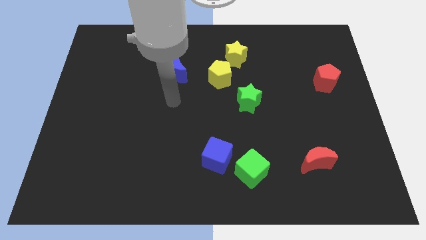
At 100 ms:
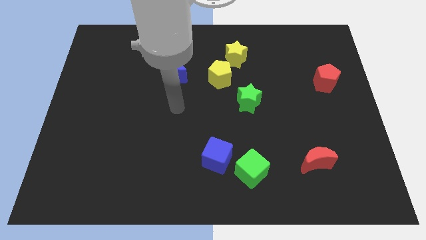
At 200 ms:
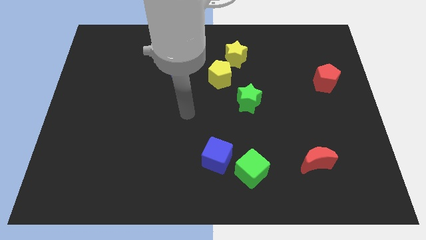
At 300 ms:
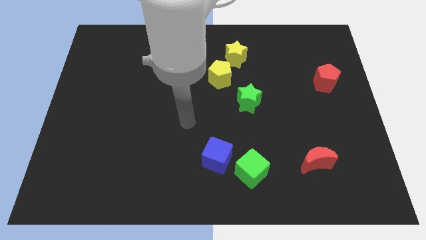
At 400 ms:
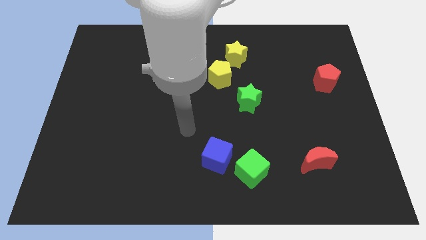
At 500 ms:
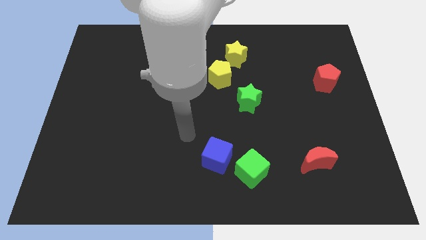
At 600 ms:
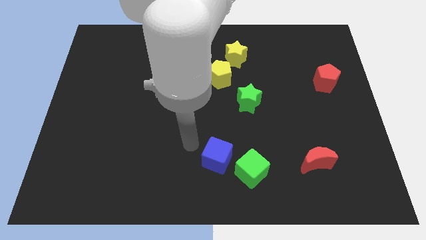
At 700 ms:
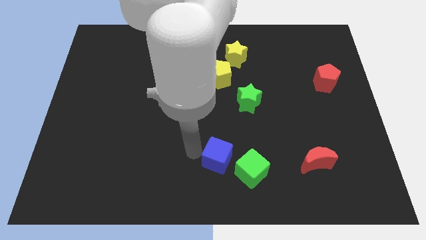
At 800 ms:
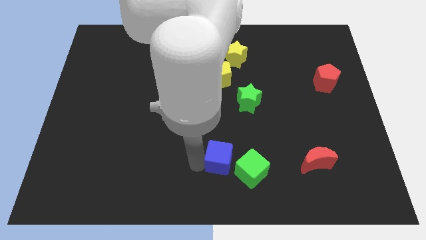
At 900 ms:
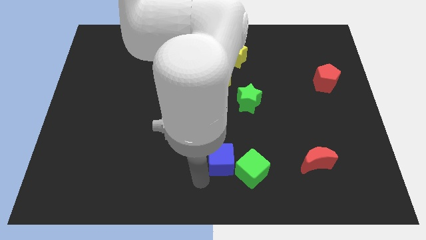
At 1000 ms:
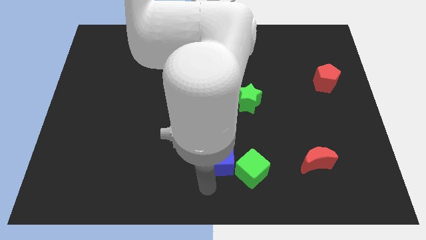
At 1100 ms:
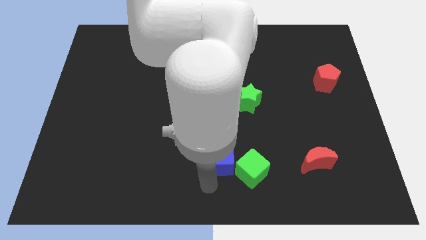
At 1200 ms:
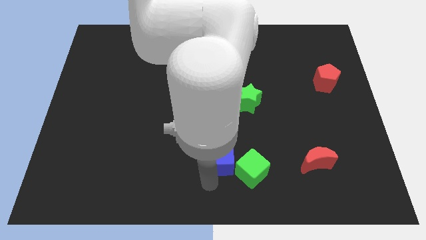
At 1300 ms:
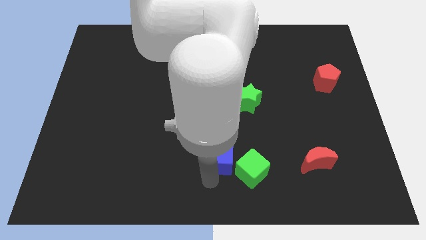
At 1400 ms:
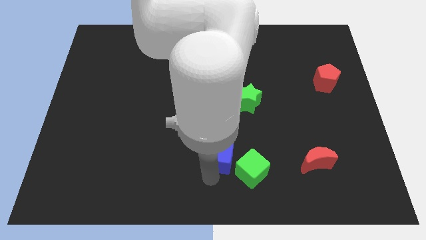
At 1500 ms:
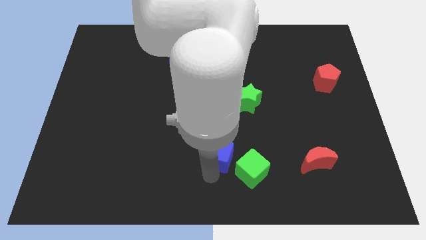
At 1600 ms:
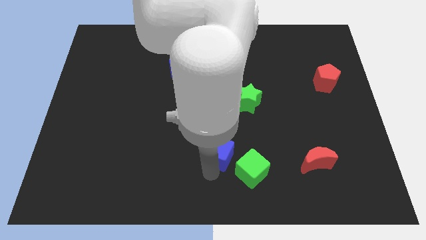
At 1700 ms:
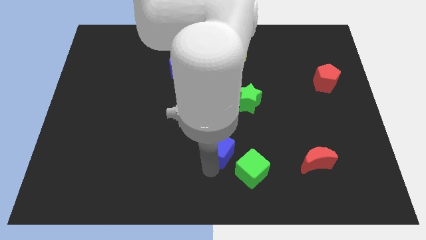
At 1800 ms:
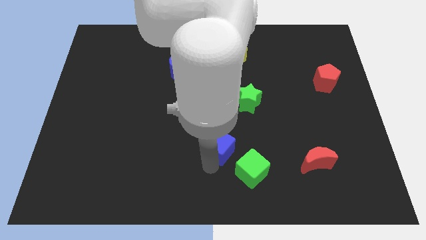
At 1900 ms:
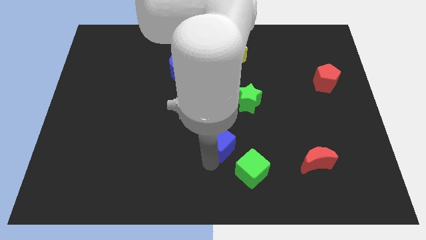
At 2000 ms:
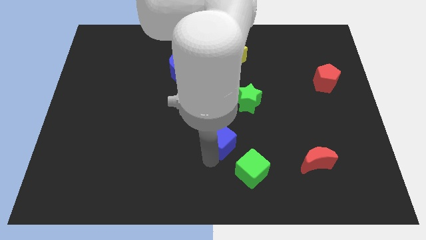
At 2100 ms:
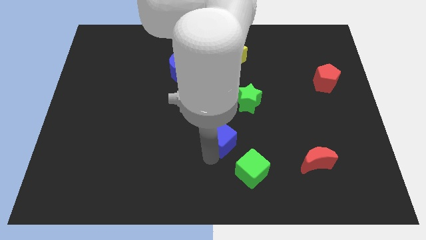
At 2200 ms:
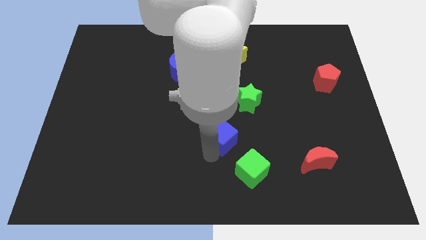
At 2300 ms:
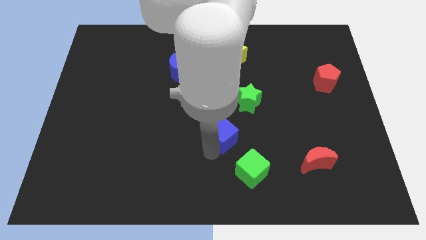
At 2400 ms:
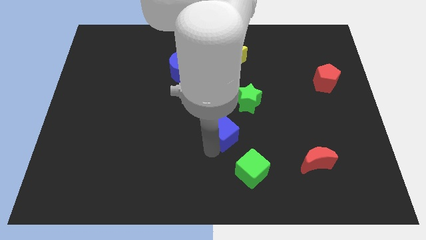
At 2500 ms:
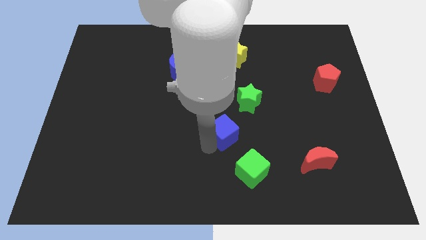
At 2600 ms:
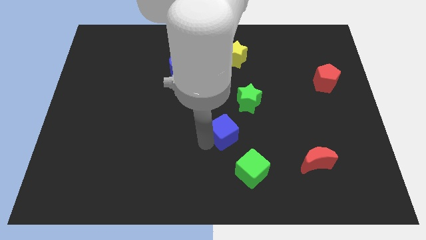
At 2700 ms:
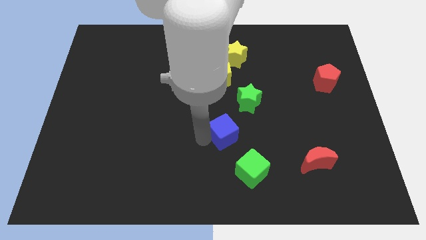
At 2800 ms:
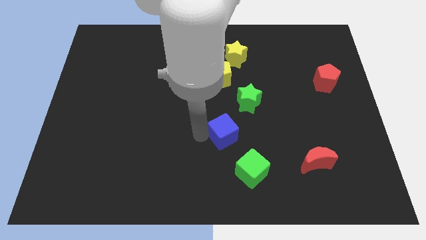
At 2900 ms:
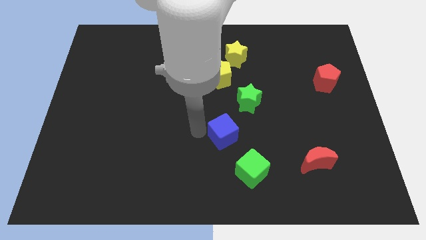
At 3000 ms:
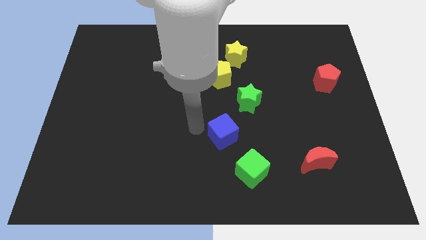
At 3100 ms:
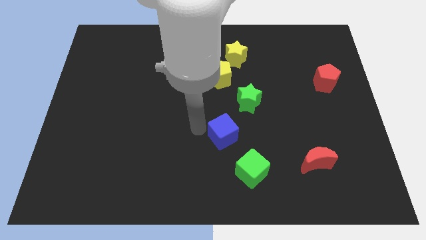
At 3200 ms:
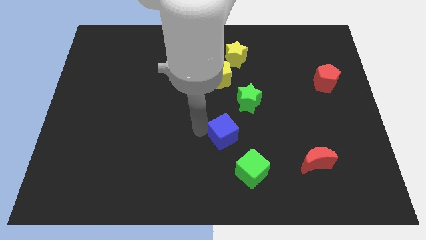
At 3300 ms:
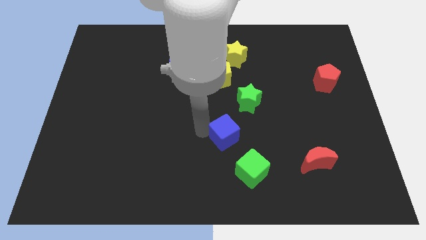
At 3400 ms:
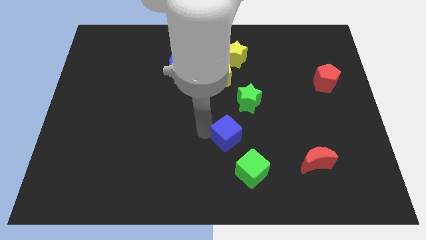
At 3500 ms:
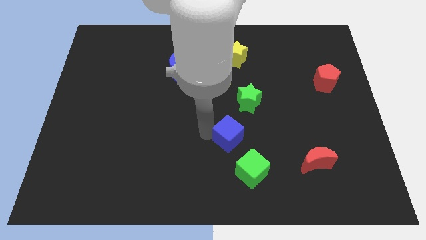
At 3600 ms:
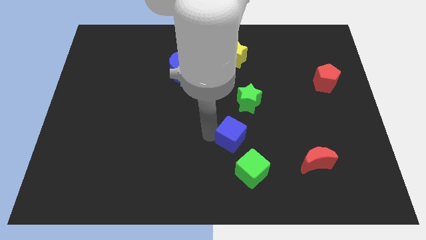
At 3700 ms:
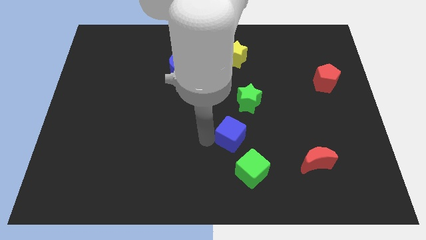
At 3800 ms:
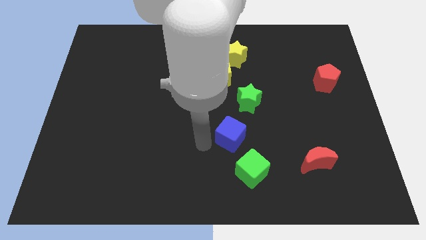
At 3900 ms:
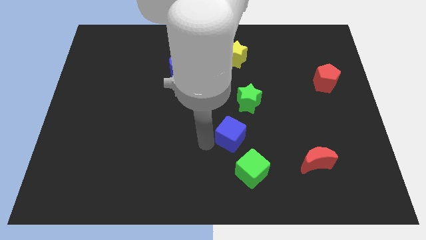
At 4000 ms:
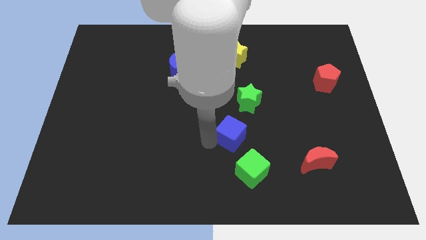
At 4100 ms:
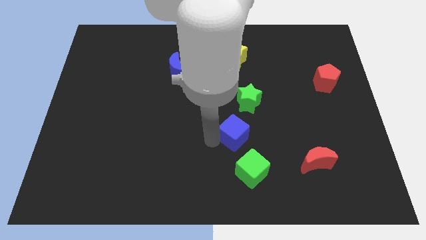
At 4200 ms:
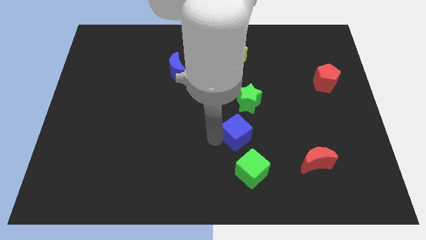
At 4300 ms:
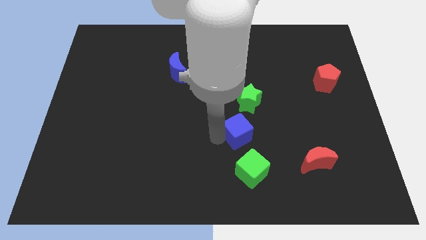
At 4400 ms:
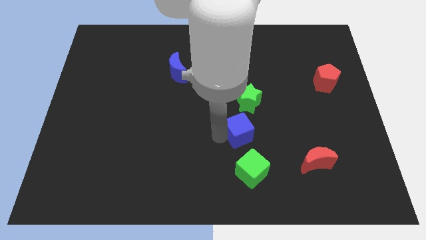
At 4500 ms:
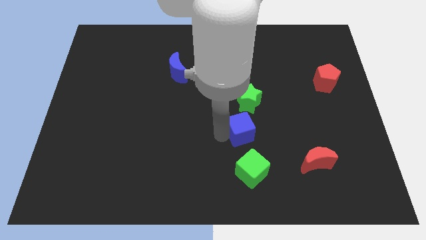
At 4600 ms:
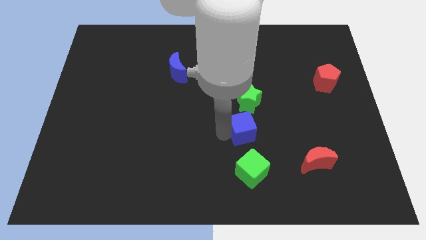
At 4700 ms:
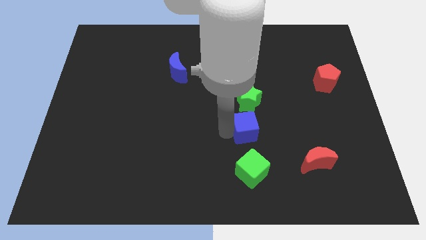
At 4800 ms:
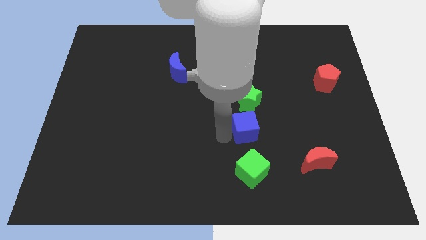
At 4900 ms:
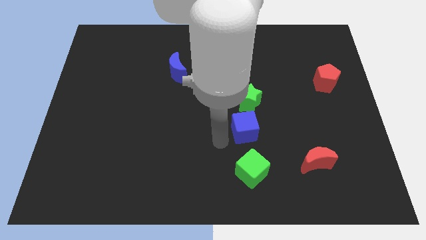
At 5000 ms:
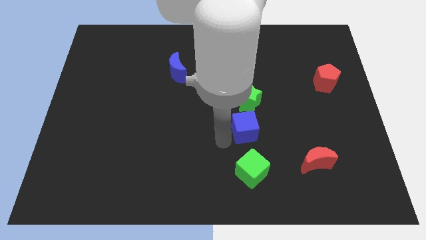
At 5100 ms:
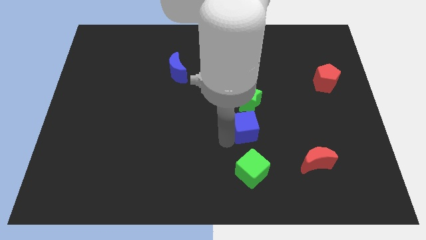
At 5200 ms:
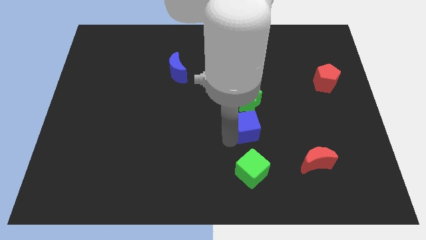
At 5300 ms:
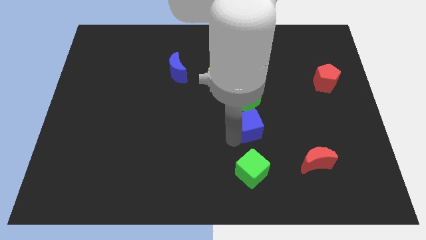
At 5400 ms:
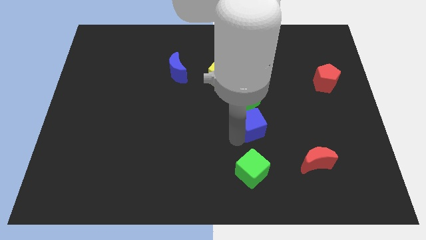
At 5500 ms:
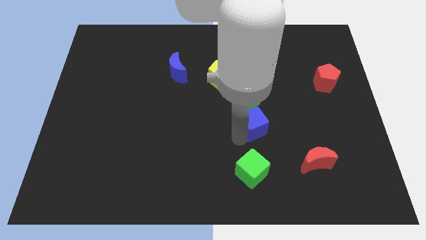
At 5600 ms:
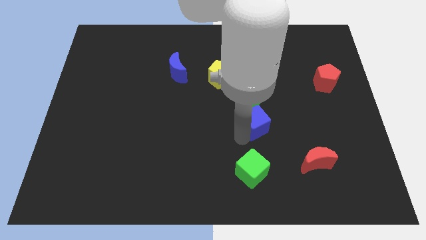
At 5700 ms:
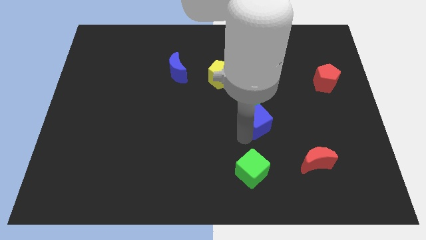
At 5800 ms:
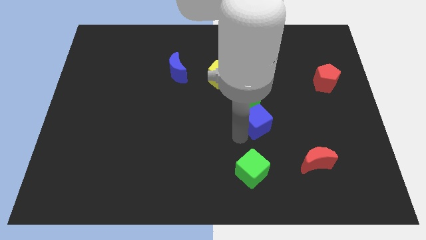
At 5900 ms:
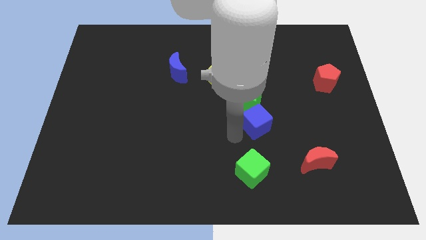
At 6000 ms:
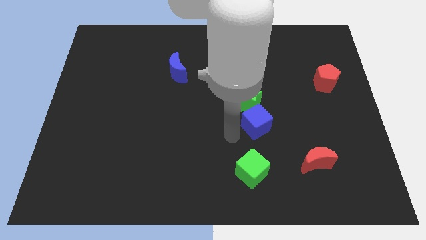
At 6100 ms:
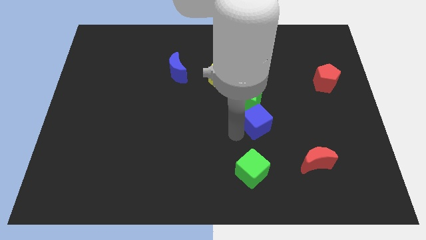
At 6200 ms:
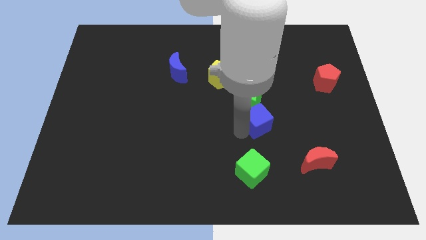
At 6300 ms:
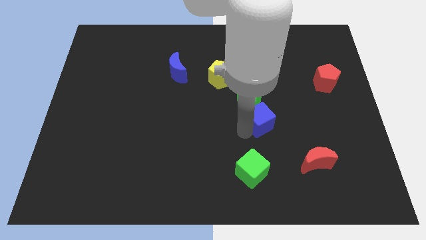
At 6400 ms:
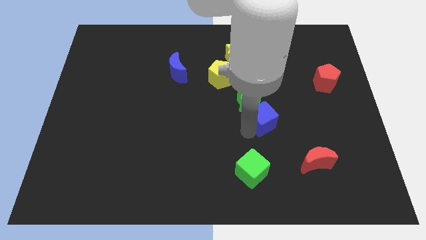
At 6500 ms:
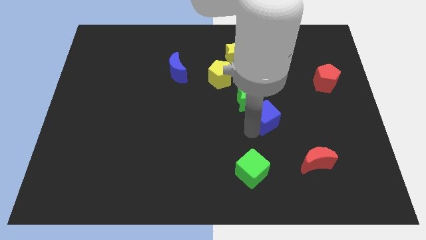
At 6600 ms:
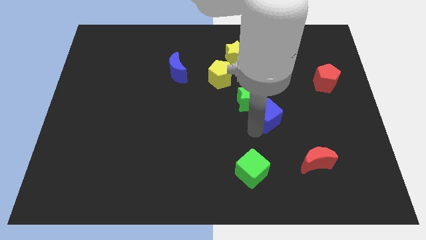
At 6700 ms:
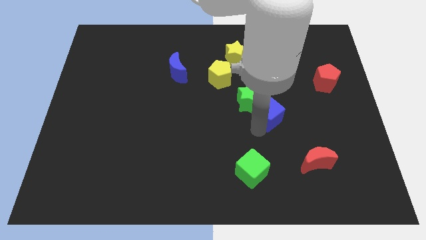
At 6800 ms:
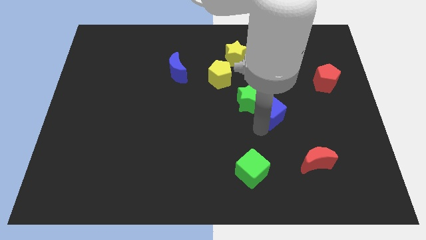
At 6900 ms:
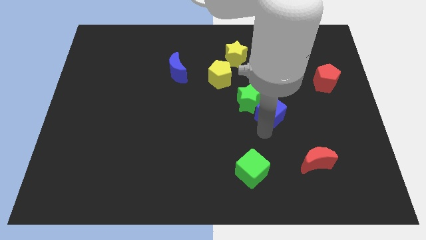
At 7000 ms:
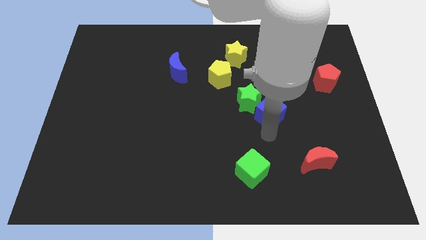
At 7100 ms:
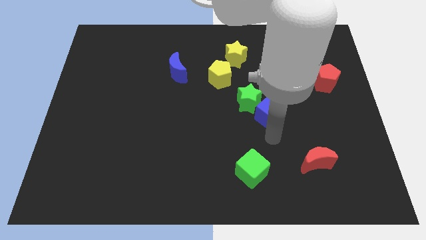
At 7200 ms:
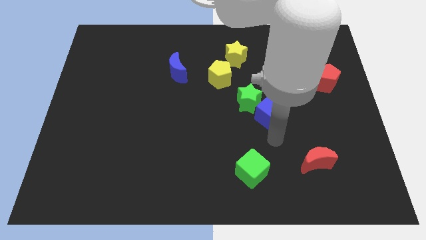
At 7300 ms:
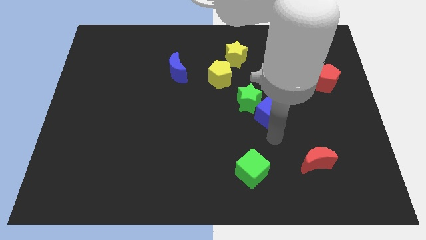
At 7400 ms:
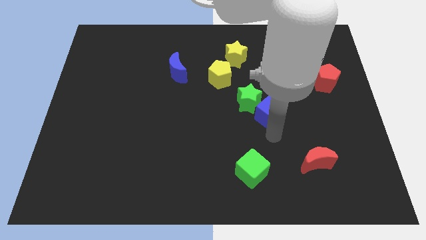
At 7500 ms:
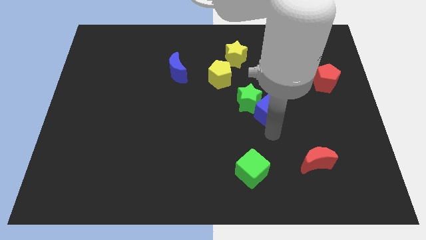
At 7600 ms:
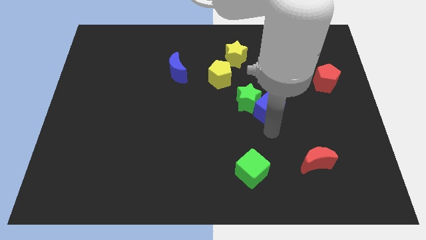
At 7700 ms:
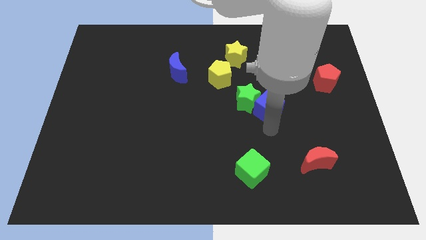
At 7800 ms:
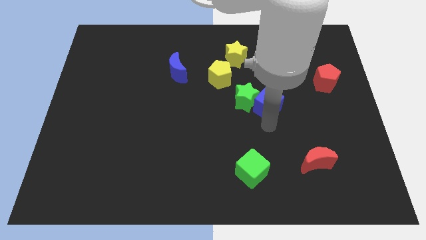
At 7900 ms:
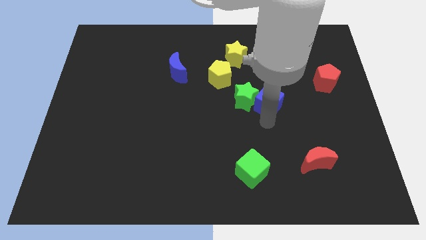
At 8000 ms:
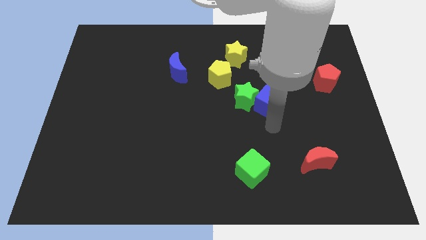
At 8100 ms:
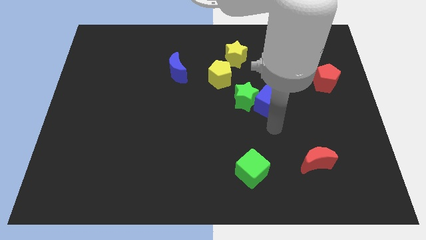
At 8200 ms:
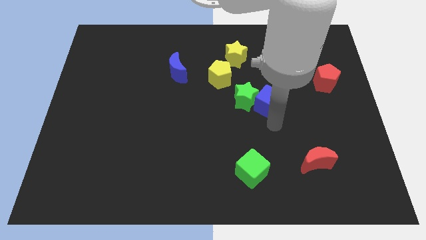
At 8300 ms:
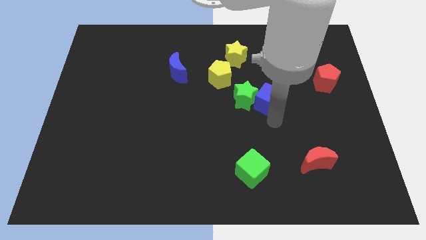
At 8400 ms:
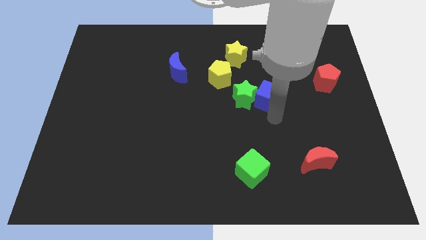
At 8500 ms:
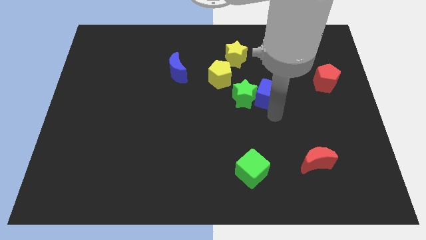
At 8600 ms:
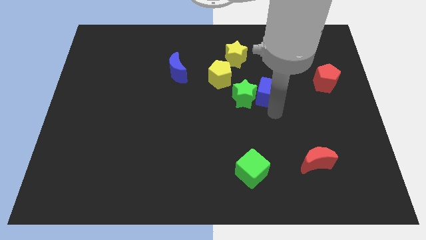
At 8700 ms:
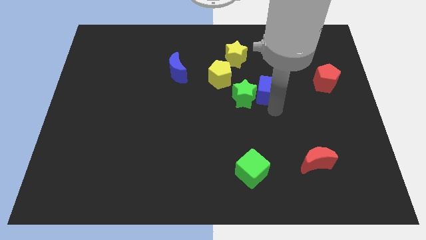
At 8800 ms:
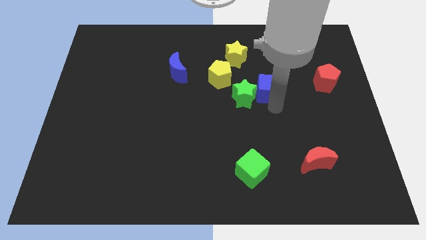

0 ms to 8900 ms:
move the blue cube just right of the yellow pentagon
